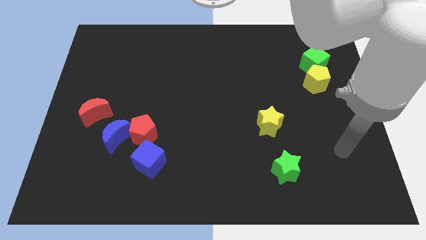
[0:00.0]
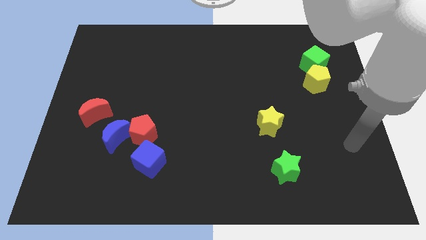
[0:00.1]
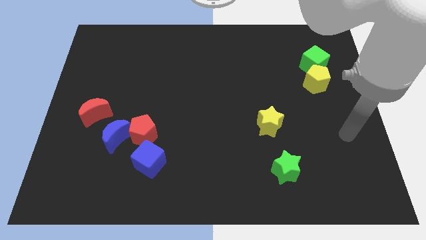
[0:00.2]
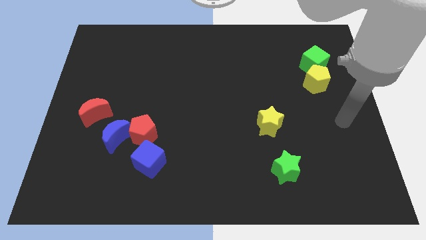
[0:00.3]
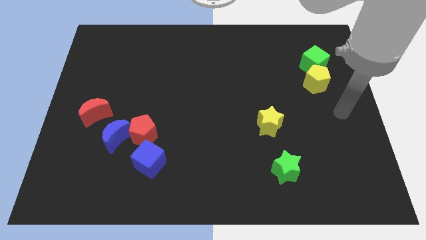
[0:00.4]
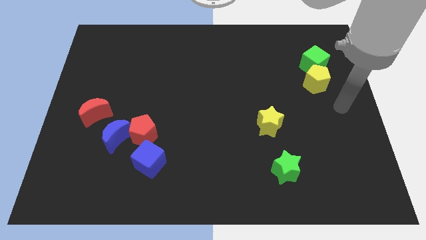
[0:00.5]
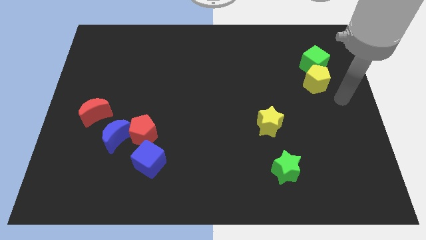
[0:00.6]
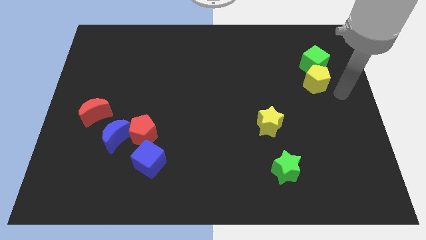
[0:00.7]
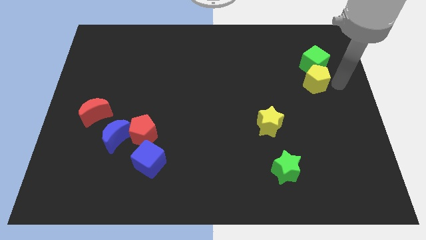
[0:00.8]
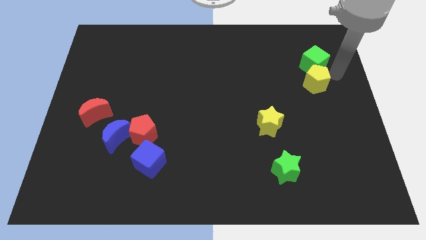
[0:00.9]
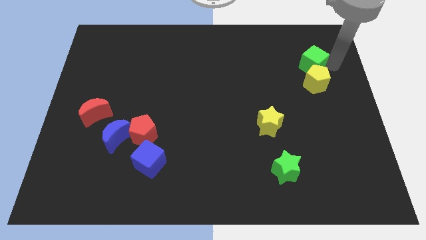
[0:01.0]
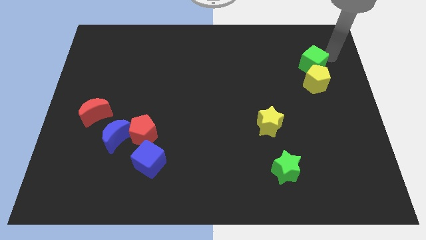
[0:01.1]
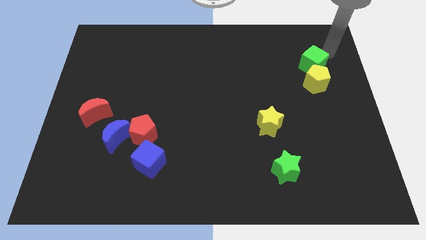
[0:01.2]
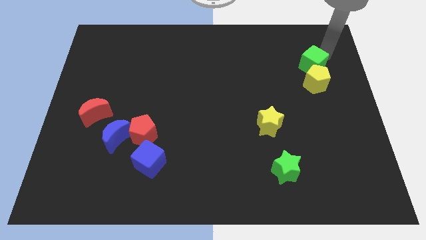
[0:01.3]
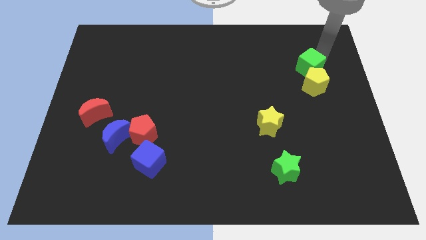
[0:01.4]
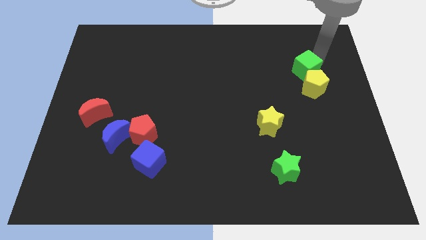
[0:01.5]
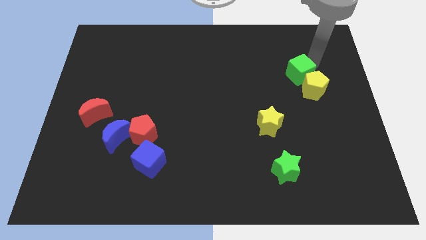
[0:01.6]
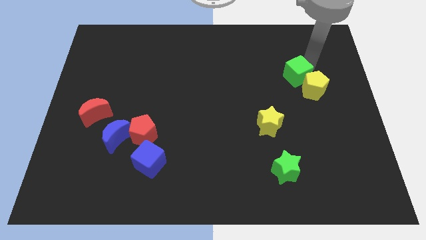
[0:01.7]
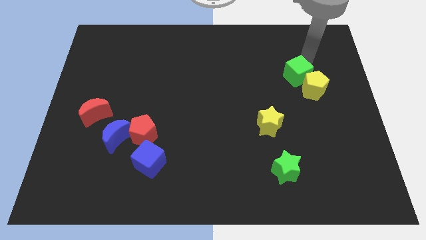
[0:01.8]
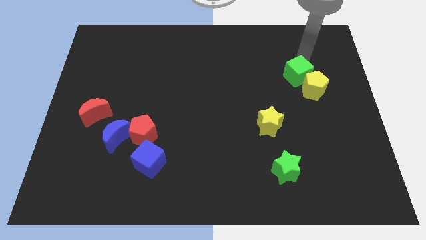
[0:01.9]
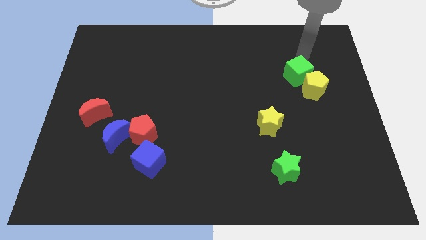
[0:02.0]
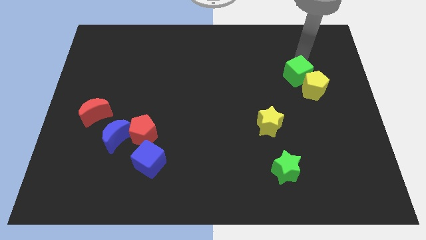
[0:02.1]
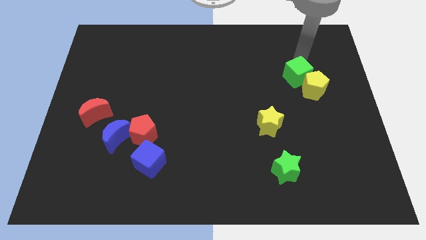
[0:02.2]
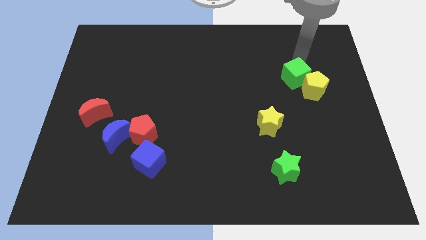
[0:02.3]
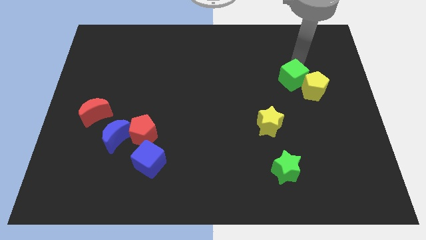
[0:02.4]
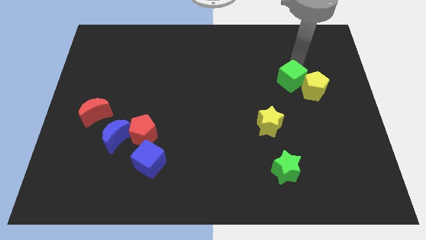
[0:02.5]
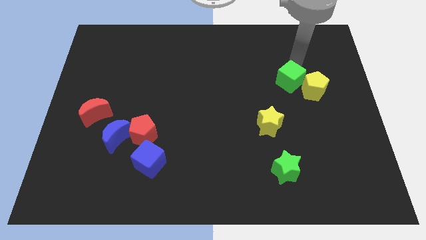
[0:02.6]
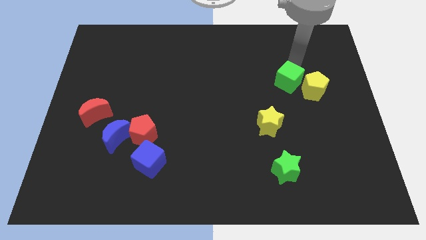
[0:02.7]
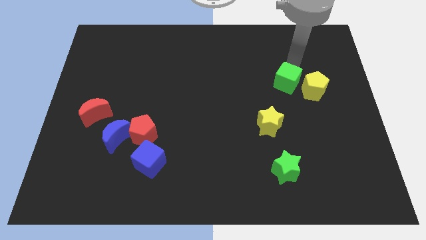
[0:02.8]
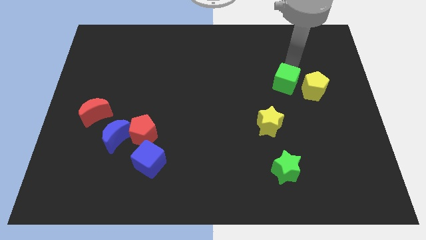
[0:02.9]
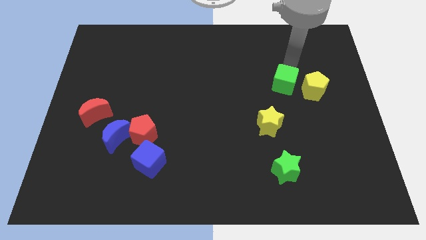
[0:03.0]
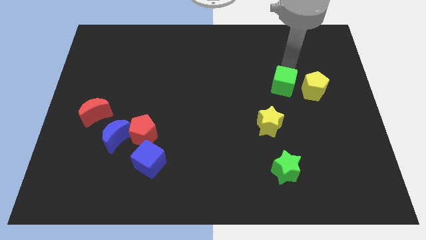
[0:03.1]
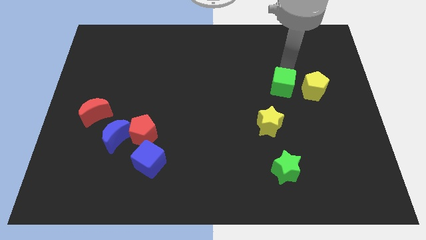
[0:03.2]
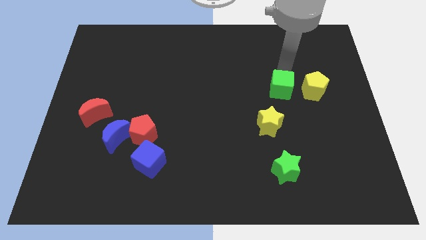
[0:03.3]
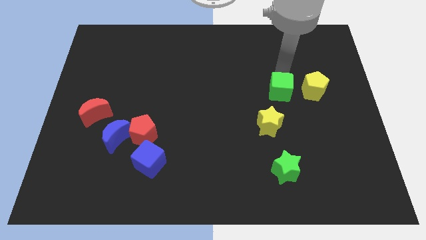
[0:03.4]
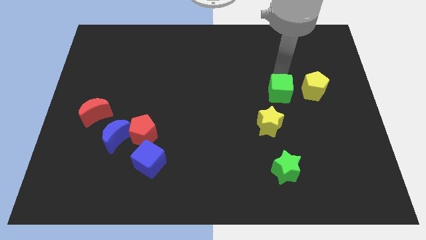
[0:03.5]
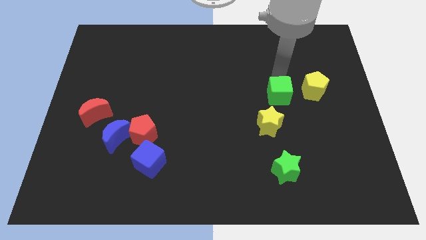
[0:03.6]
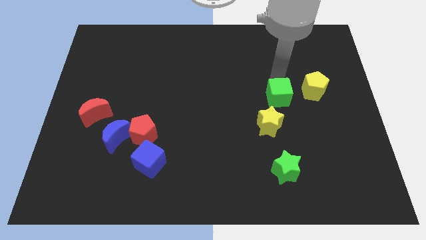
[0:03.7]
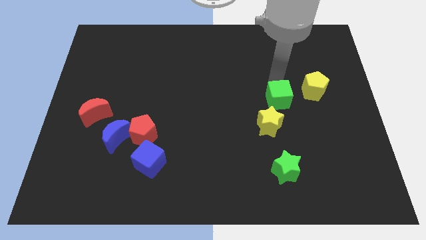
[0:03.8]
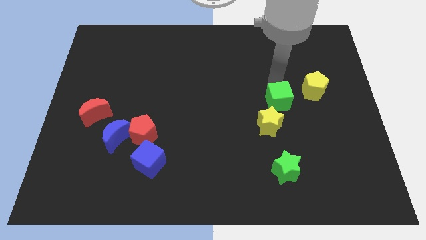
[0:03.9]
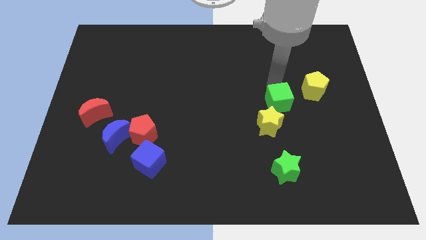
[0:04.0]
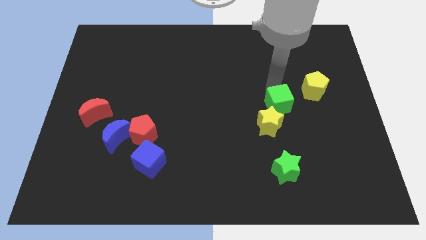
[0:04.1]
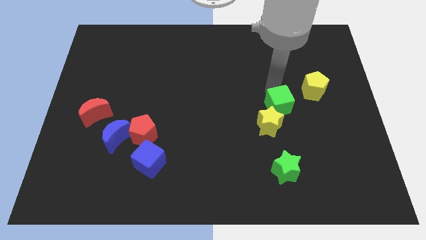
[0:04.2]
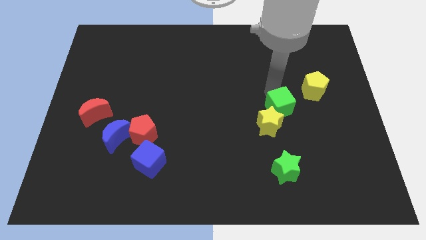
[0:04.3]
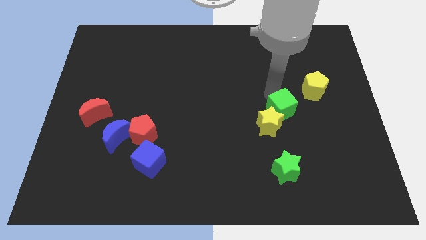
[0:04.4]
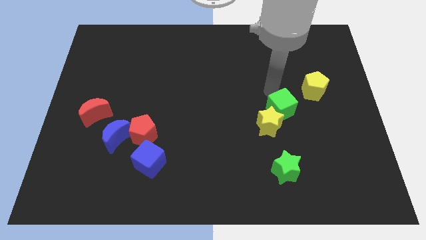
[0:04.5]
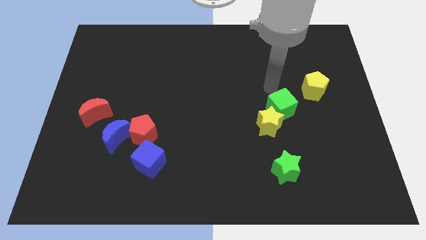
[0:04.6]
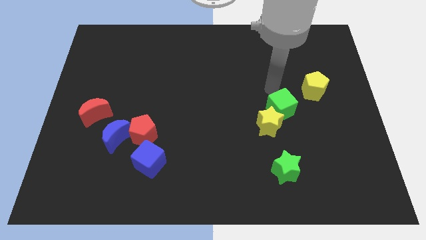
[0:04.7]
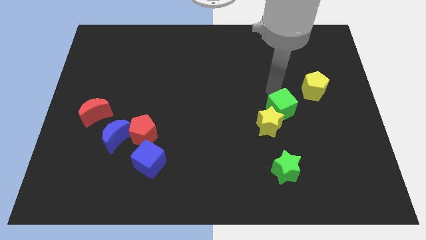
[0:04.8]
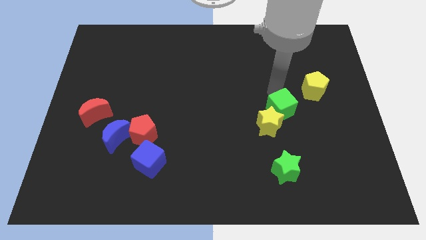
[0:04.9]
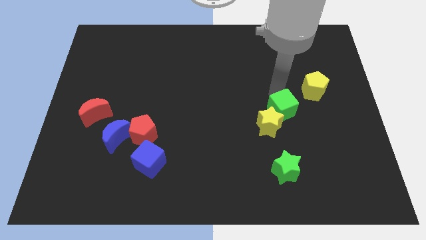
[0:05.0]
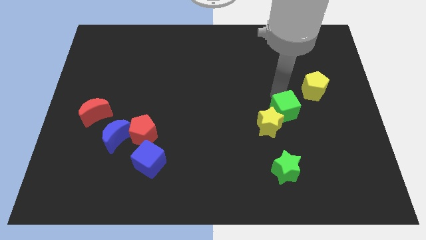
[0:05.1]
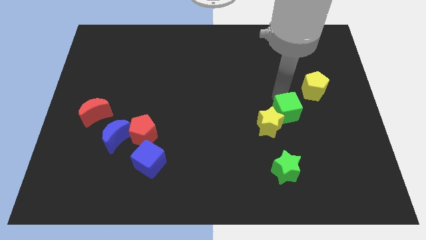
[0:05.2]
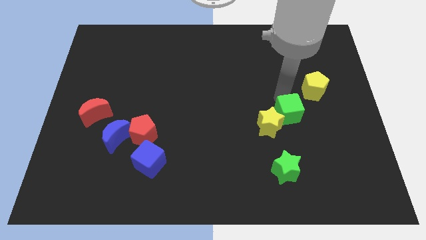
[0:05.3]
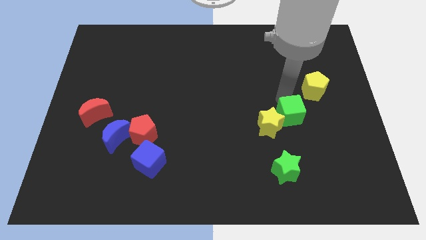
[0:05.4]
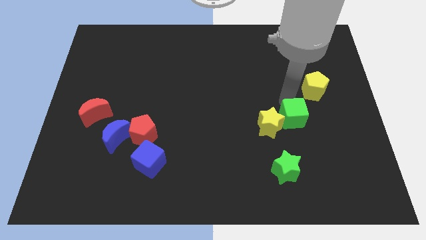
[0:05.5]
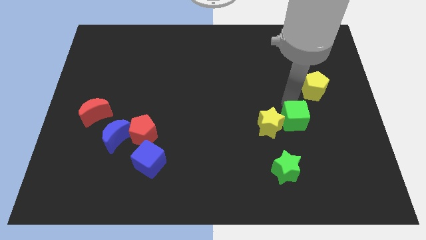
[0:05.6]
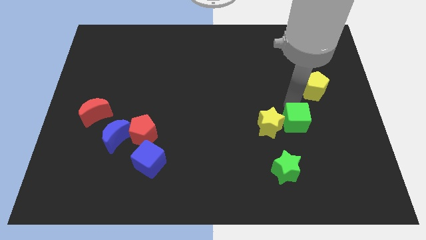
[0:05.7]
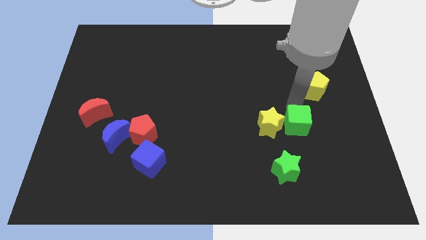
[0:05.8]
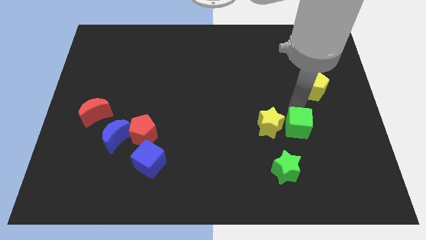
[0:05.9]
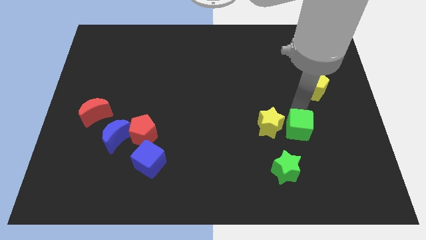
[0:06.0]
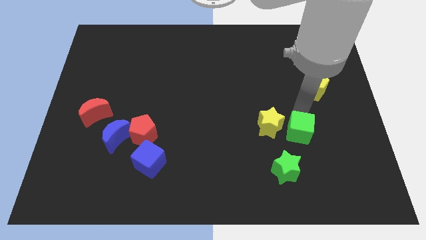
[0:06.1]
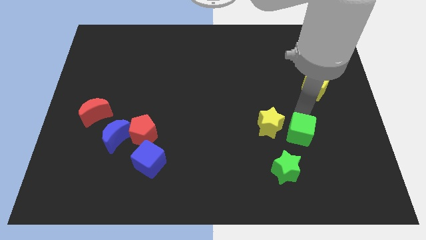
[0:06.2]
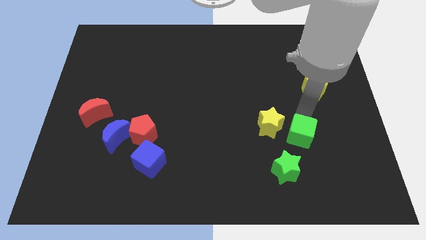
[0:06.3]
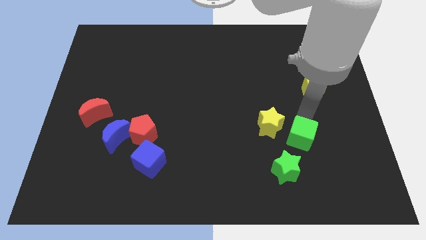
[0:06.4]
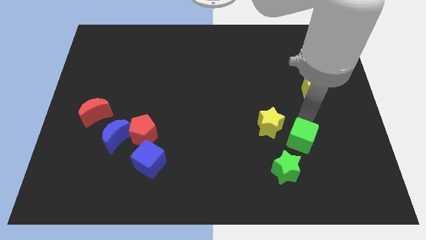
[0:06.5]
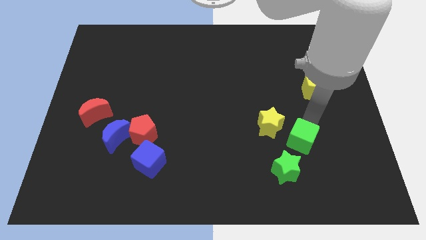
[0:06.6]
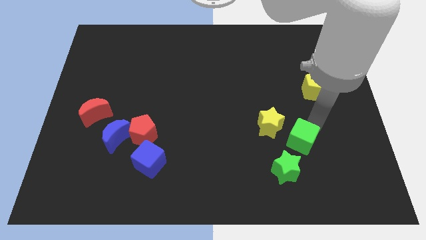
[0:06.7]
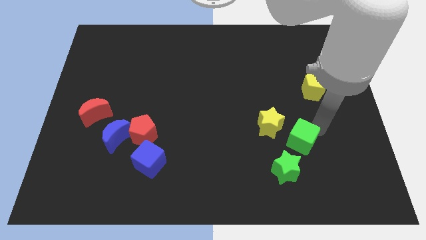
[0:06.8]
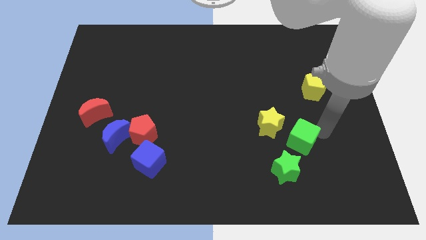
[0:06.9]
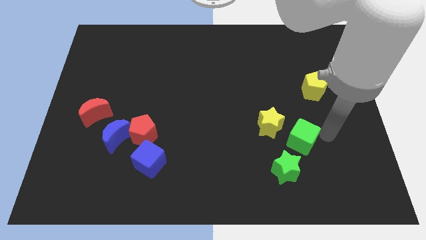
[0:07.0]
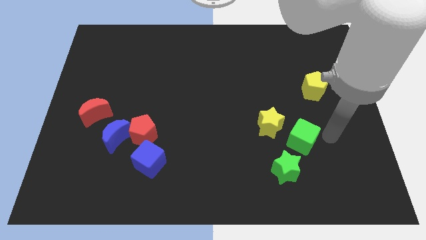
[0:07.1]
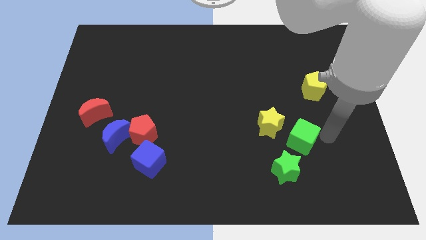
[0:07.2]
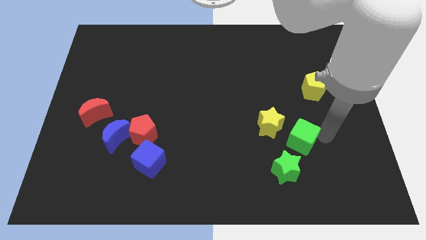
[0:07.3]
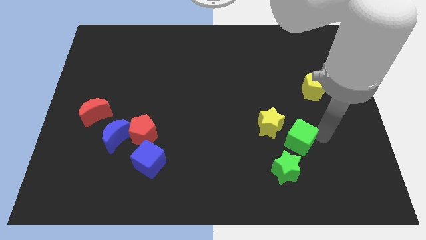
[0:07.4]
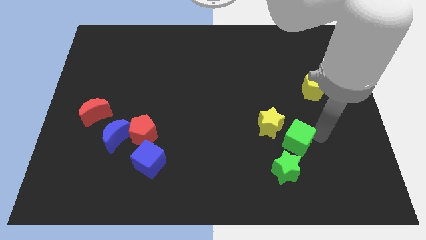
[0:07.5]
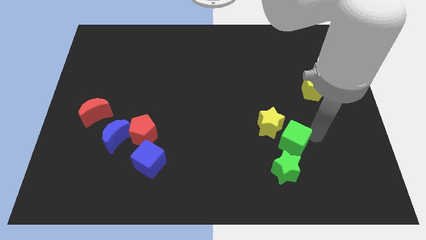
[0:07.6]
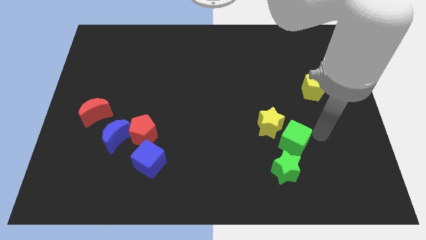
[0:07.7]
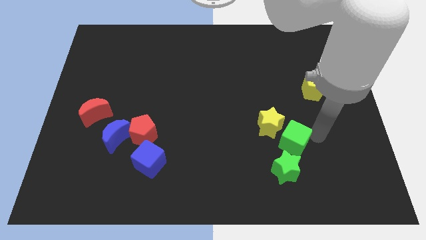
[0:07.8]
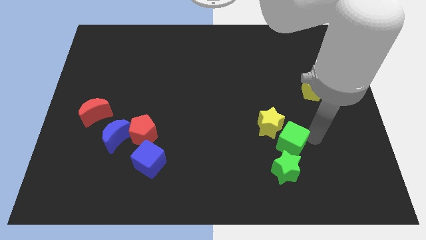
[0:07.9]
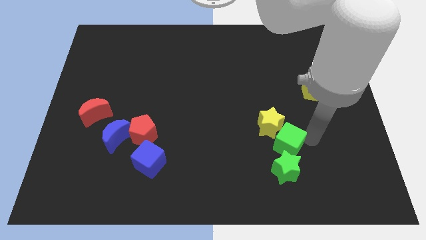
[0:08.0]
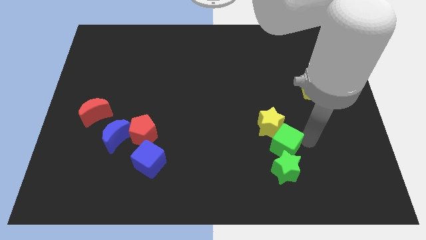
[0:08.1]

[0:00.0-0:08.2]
move the green cube to the top left of the green star
